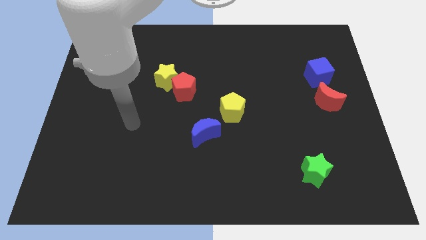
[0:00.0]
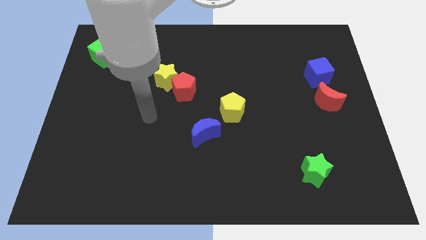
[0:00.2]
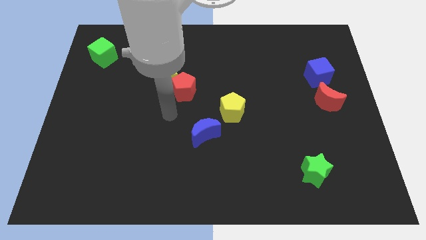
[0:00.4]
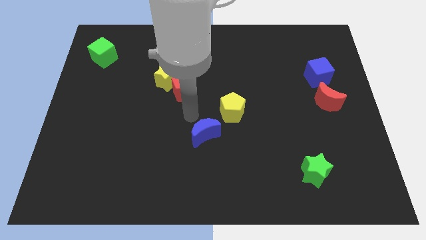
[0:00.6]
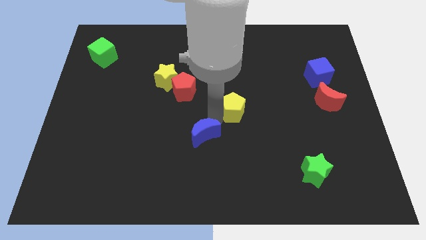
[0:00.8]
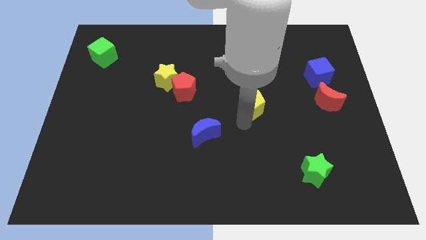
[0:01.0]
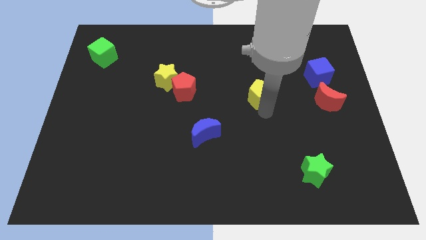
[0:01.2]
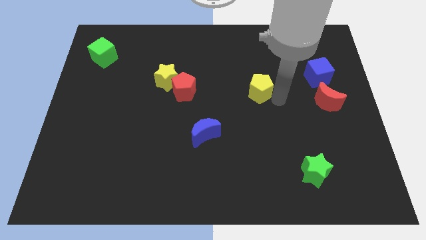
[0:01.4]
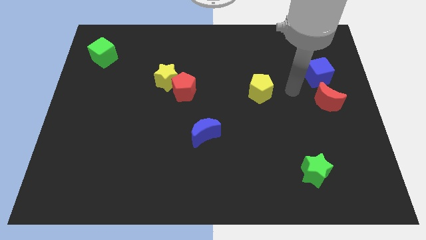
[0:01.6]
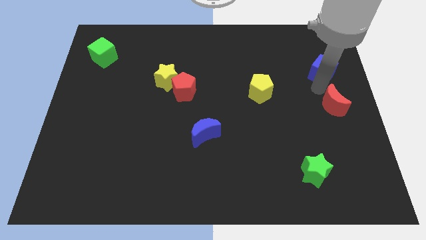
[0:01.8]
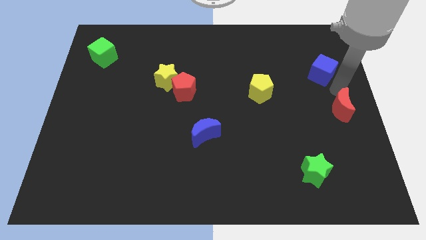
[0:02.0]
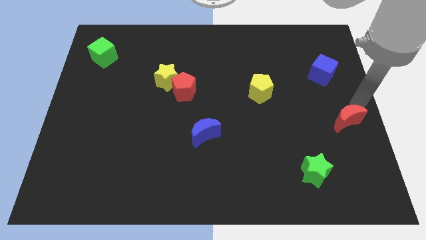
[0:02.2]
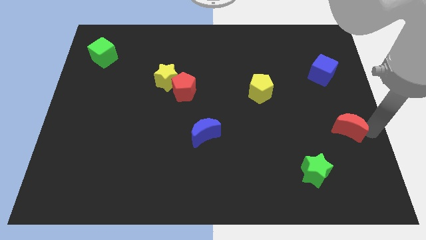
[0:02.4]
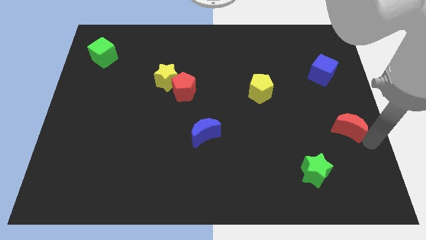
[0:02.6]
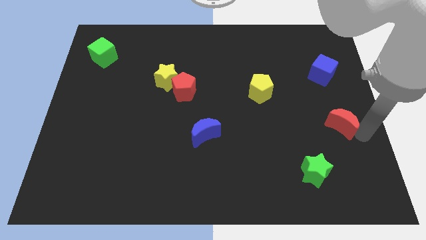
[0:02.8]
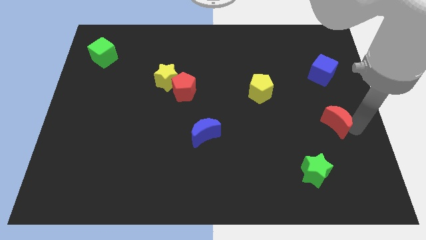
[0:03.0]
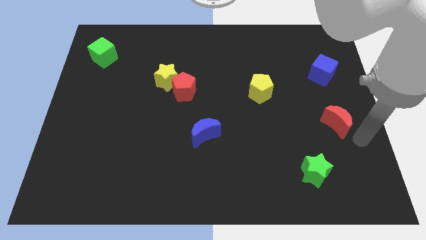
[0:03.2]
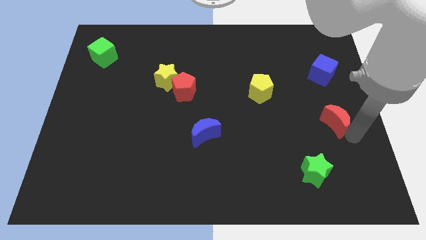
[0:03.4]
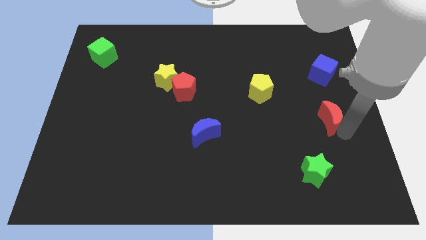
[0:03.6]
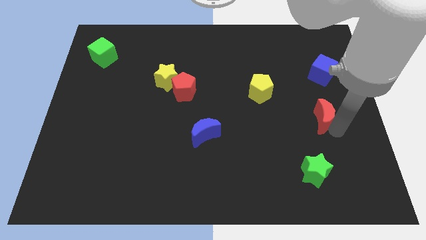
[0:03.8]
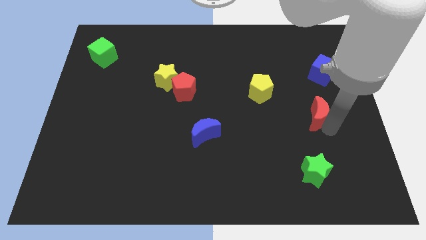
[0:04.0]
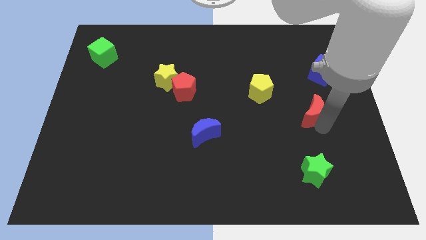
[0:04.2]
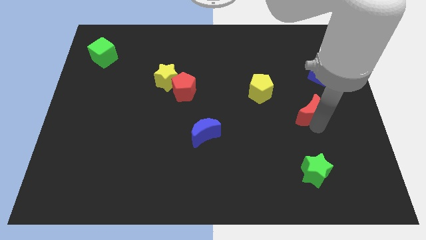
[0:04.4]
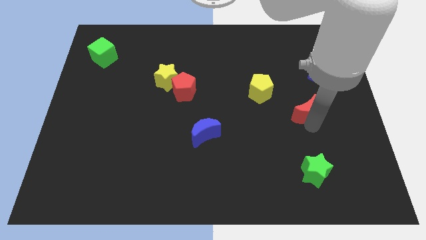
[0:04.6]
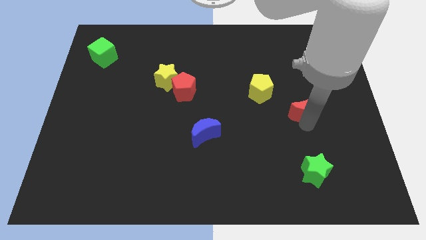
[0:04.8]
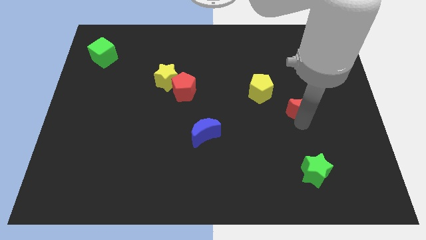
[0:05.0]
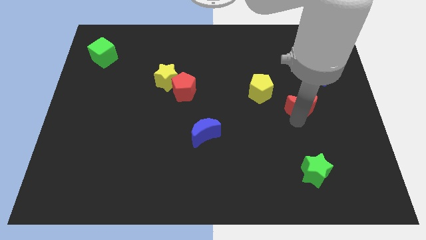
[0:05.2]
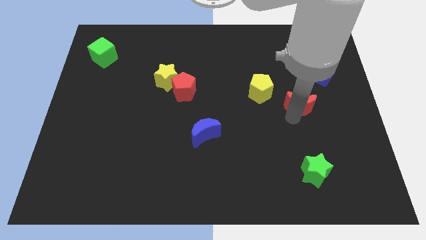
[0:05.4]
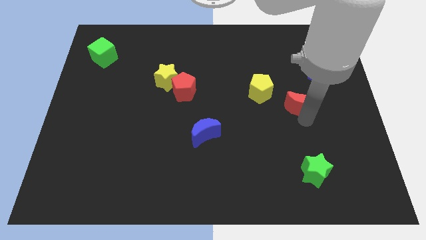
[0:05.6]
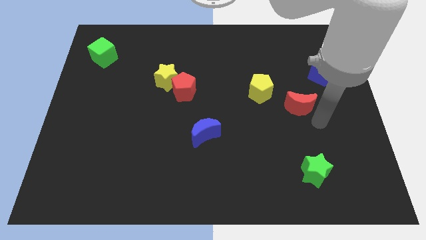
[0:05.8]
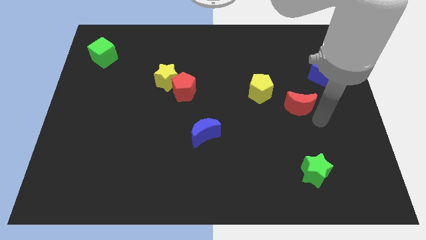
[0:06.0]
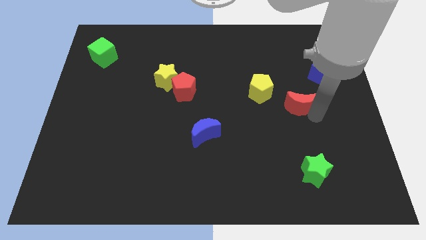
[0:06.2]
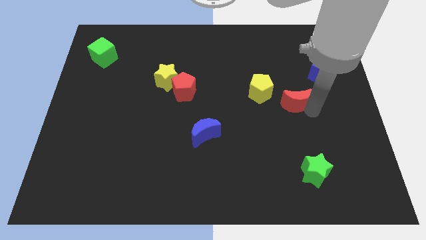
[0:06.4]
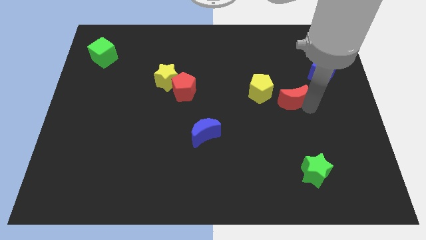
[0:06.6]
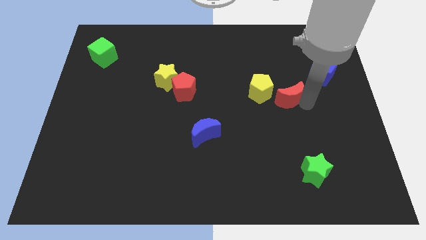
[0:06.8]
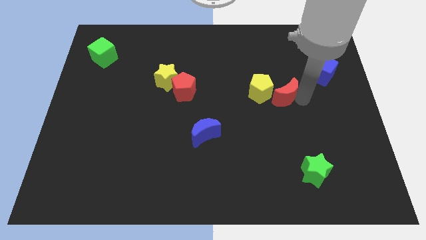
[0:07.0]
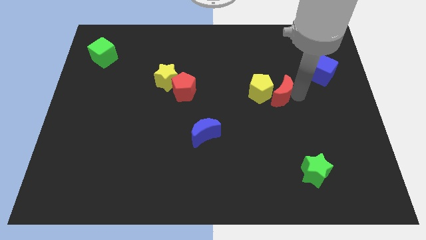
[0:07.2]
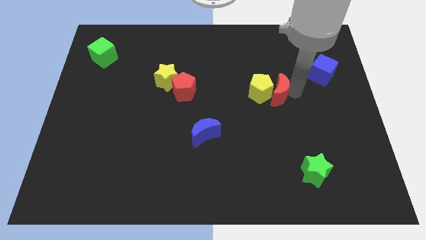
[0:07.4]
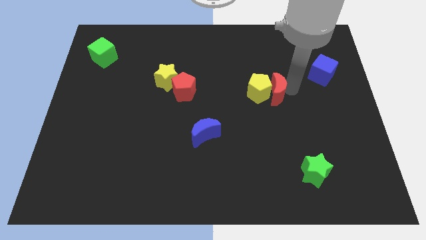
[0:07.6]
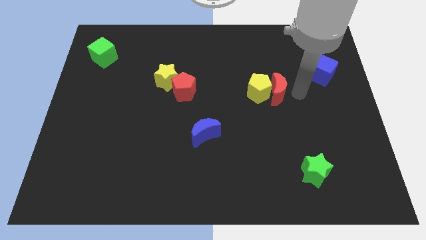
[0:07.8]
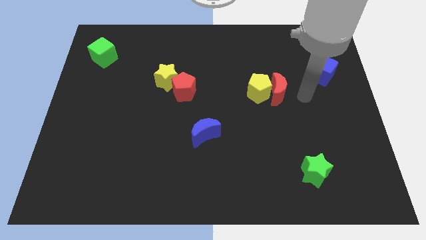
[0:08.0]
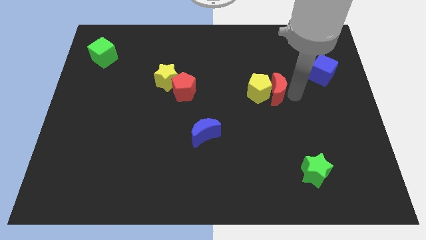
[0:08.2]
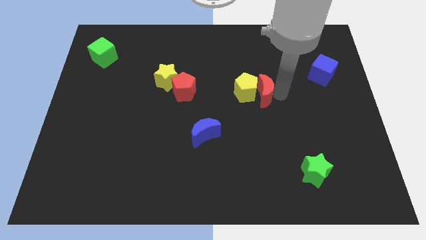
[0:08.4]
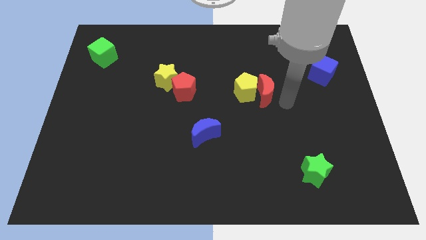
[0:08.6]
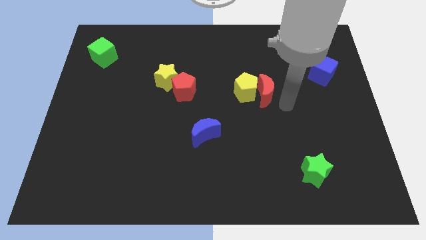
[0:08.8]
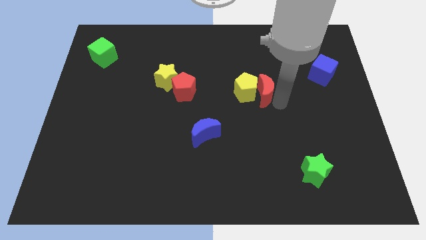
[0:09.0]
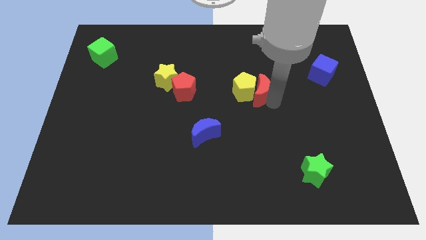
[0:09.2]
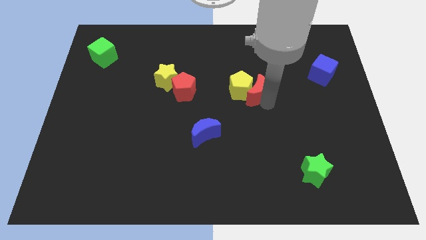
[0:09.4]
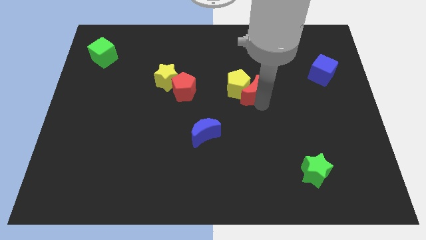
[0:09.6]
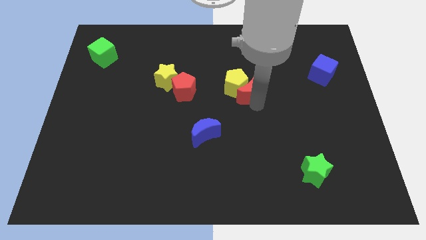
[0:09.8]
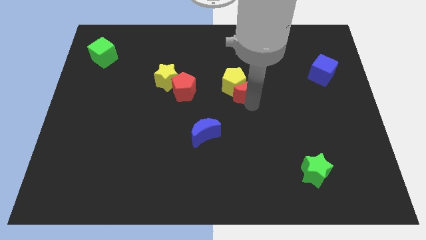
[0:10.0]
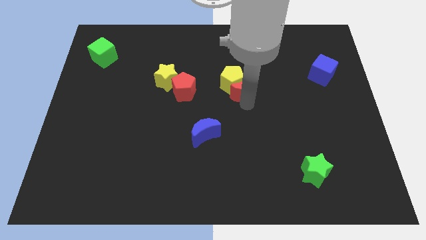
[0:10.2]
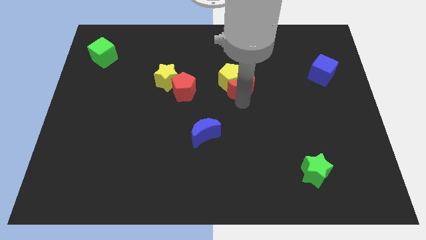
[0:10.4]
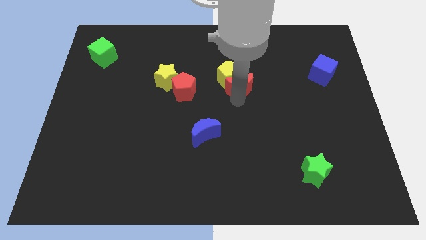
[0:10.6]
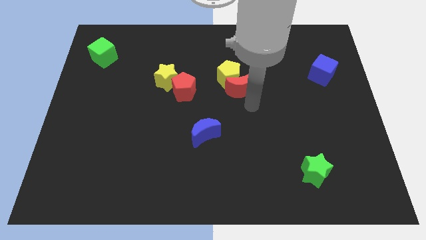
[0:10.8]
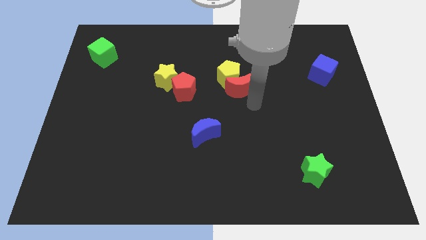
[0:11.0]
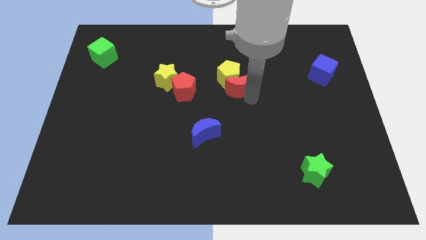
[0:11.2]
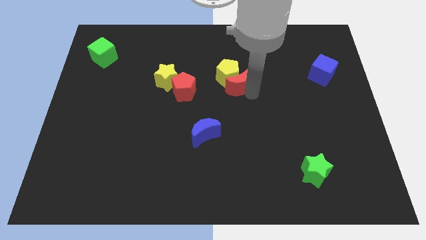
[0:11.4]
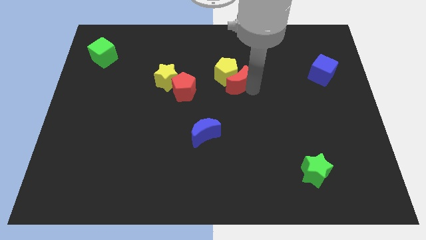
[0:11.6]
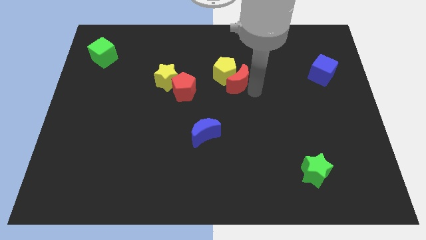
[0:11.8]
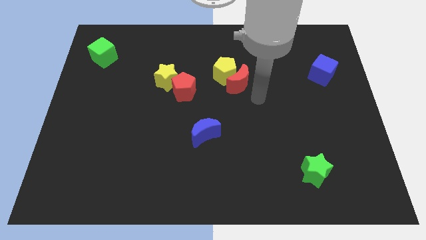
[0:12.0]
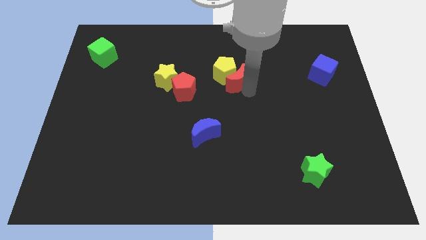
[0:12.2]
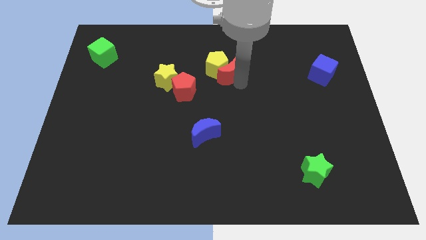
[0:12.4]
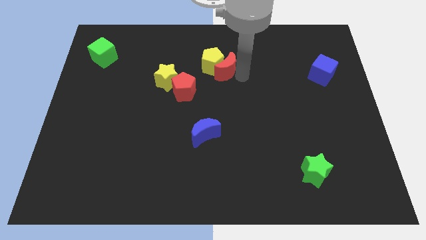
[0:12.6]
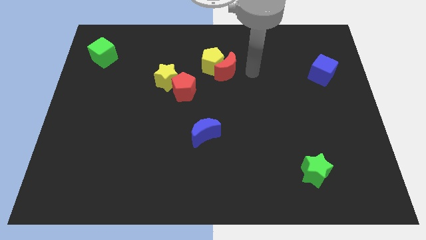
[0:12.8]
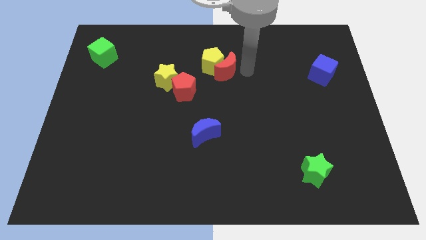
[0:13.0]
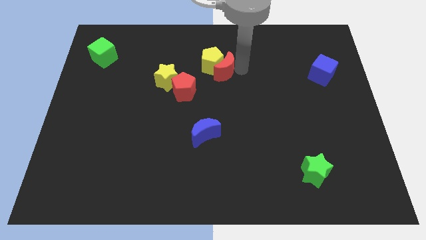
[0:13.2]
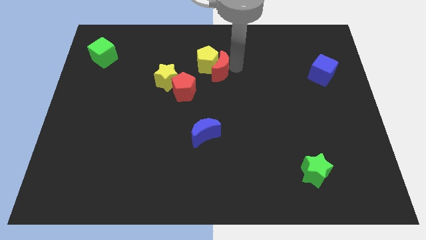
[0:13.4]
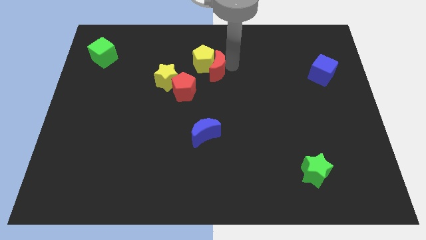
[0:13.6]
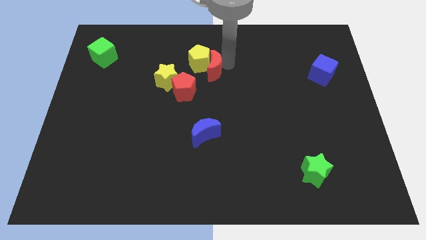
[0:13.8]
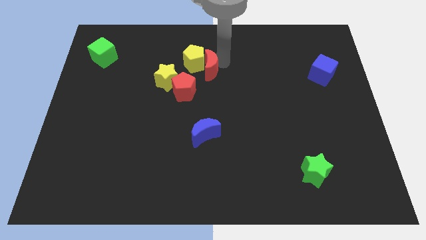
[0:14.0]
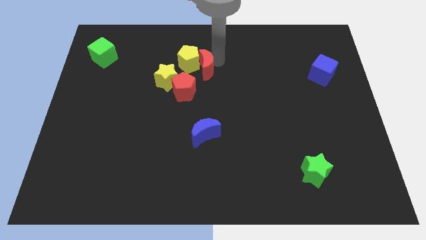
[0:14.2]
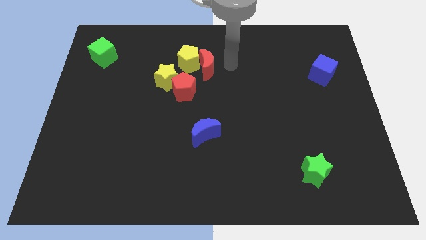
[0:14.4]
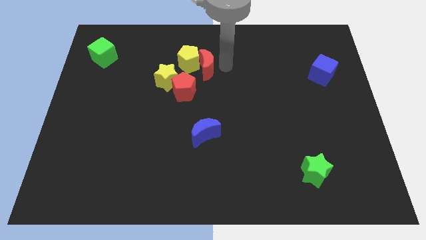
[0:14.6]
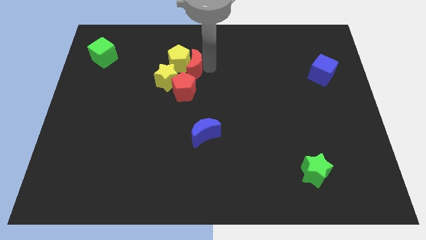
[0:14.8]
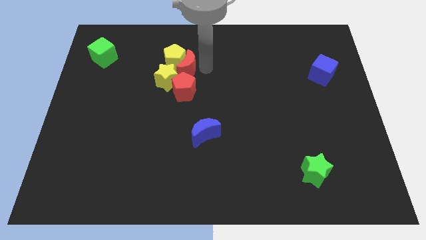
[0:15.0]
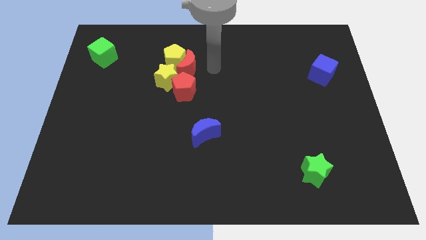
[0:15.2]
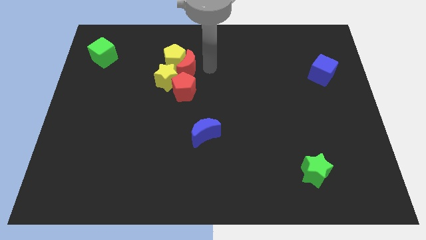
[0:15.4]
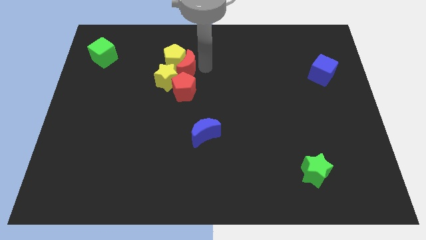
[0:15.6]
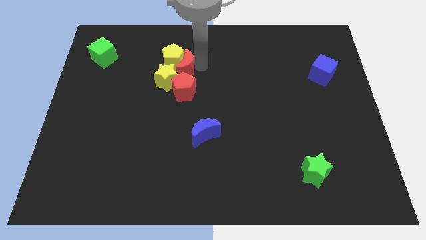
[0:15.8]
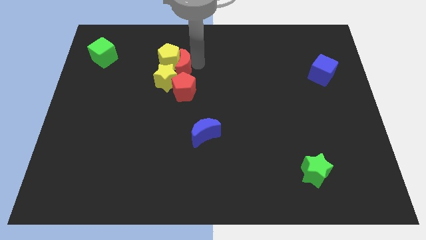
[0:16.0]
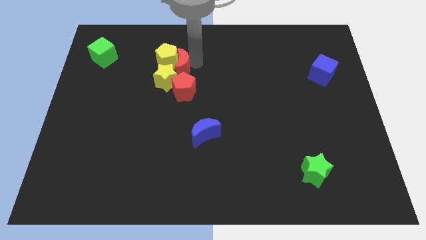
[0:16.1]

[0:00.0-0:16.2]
slide the red moon to the top left side of the red pentagon
